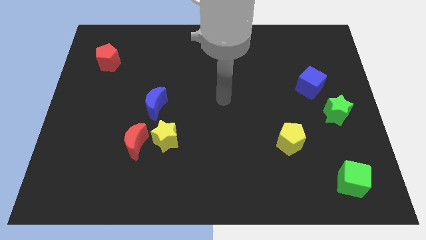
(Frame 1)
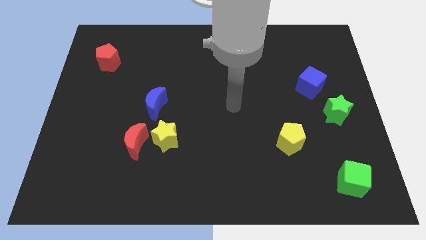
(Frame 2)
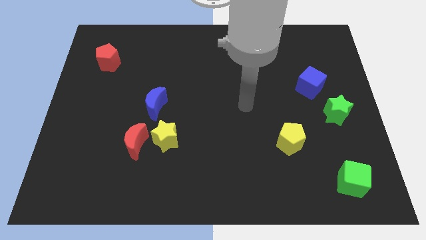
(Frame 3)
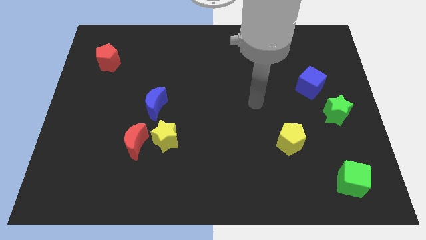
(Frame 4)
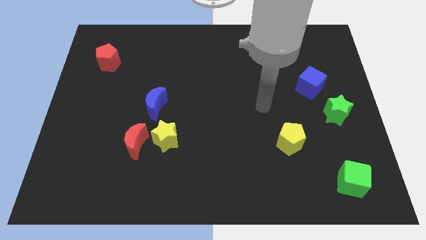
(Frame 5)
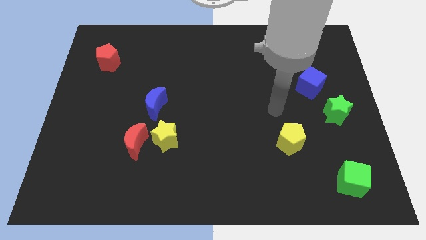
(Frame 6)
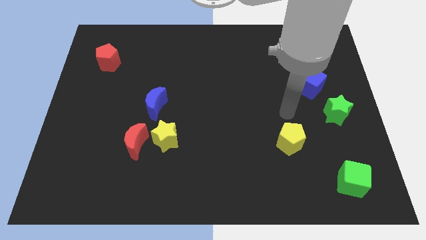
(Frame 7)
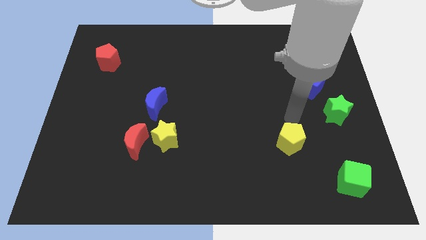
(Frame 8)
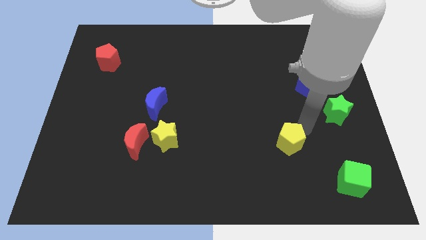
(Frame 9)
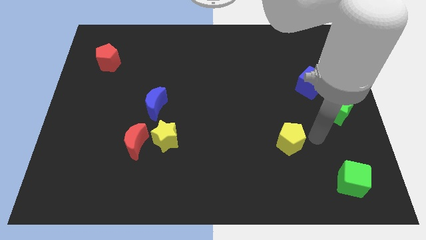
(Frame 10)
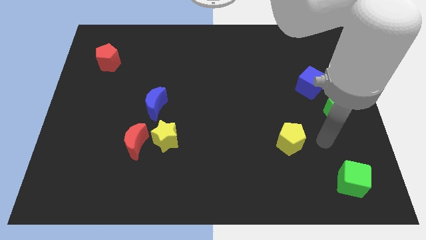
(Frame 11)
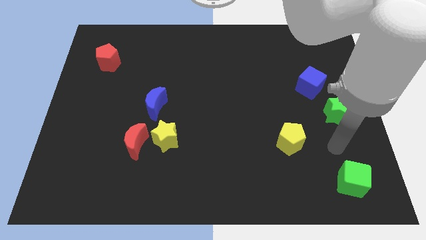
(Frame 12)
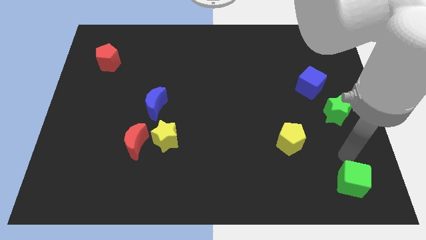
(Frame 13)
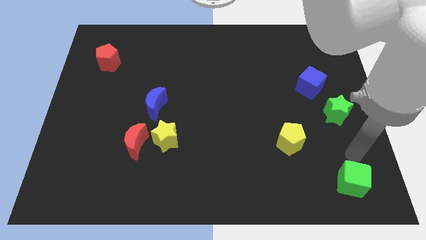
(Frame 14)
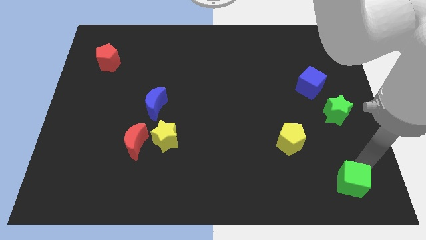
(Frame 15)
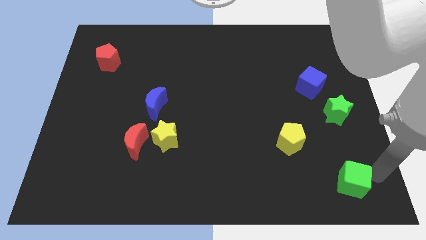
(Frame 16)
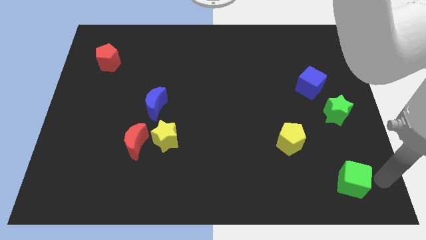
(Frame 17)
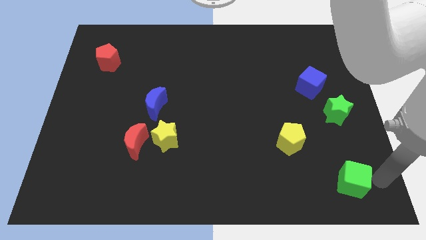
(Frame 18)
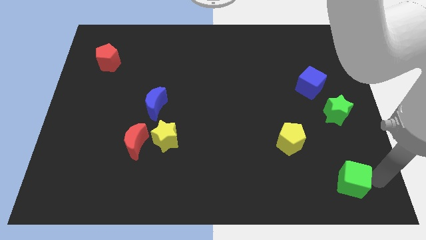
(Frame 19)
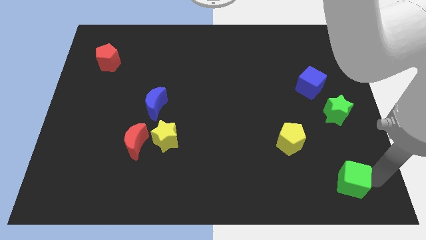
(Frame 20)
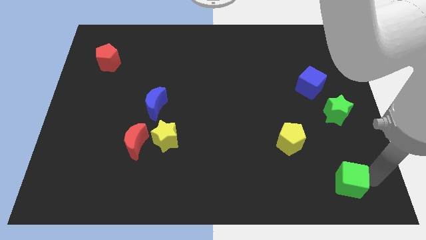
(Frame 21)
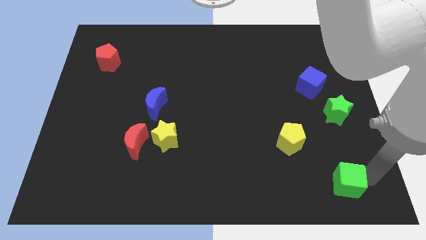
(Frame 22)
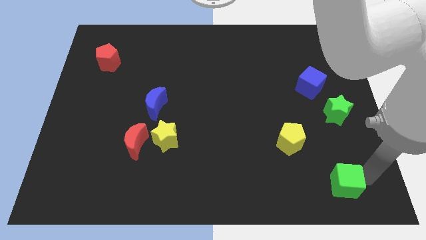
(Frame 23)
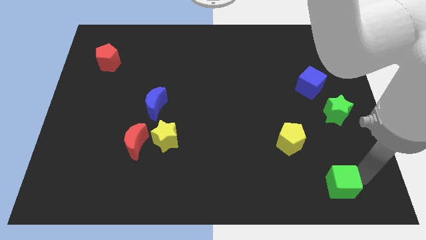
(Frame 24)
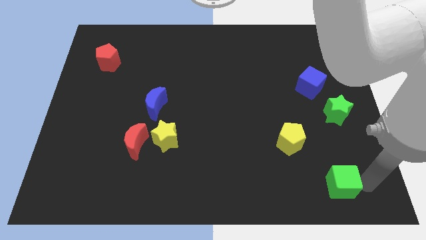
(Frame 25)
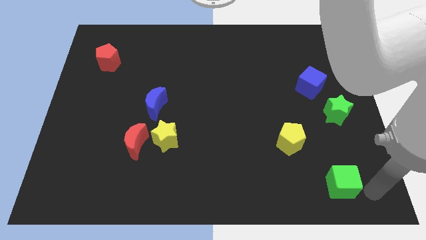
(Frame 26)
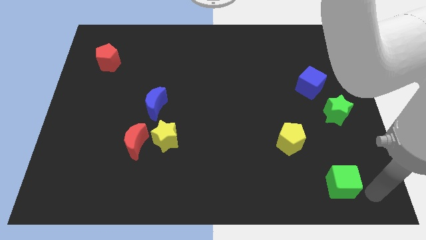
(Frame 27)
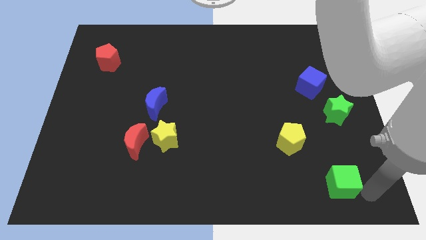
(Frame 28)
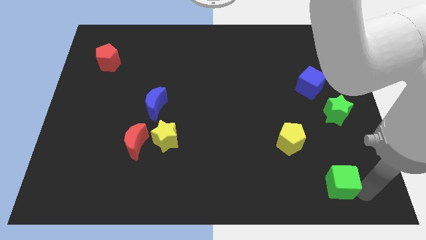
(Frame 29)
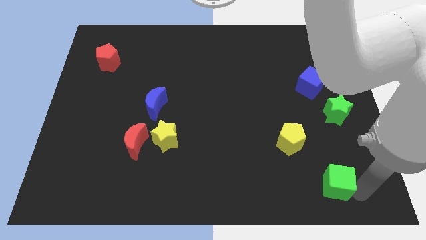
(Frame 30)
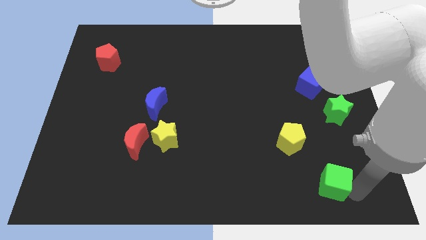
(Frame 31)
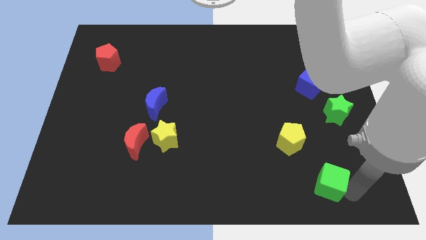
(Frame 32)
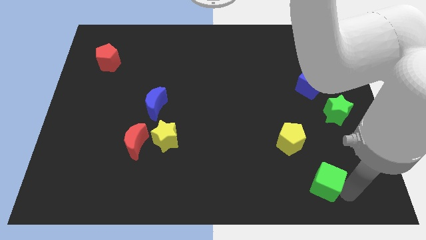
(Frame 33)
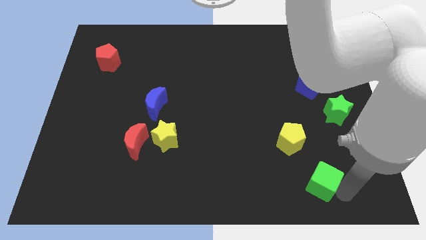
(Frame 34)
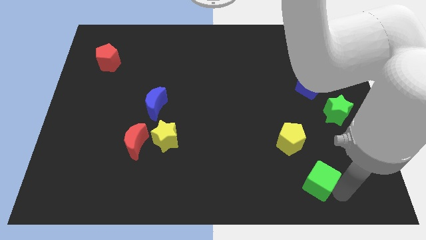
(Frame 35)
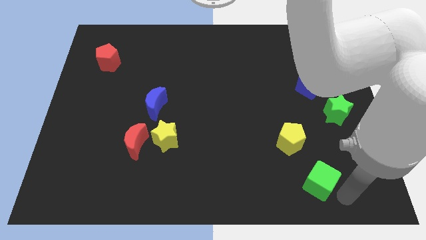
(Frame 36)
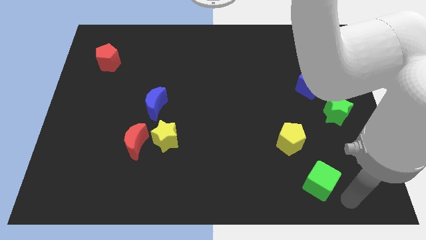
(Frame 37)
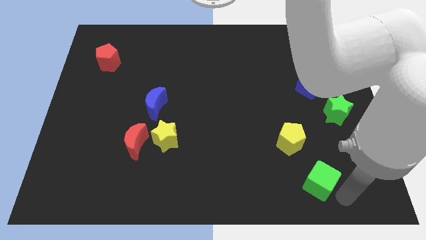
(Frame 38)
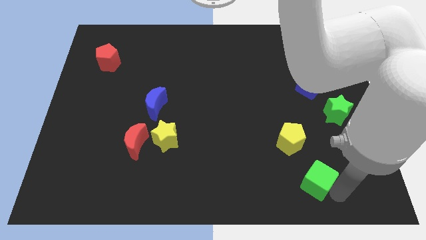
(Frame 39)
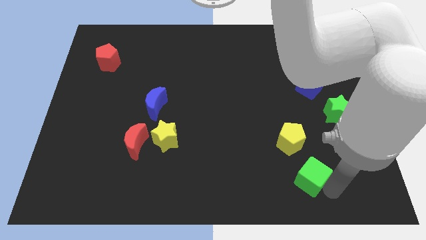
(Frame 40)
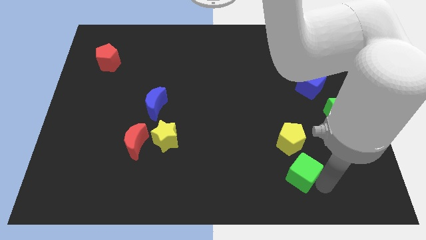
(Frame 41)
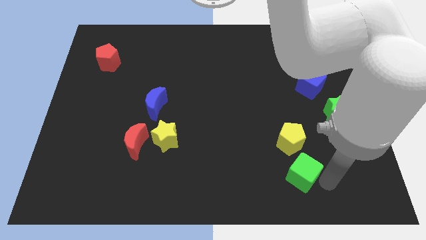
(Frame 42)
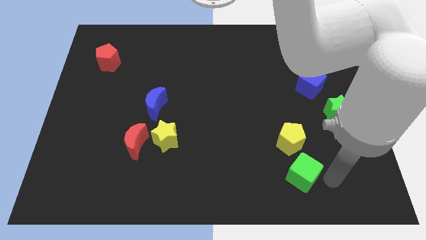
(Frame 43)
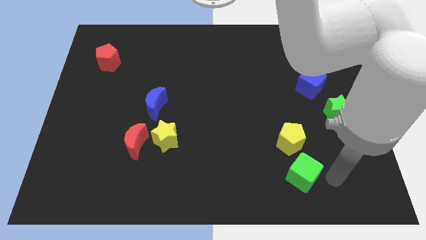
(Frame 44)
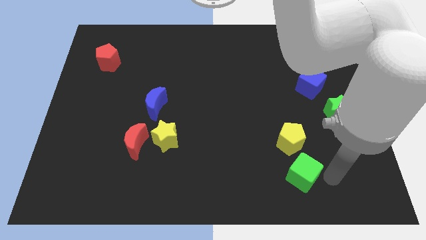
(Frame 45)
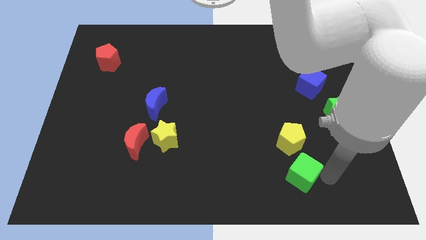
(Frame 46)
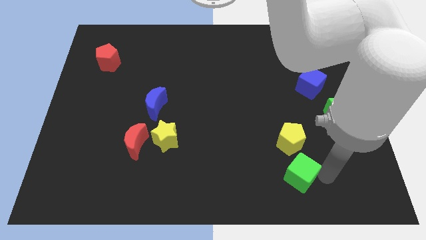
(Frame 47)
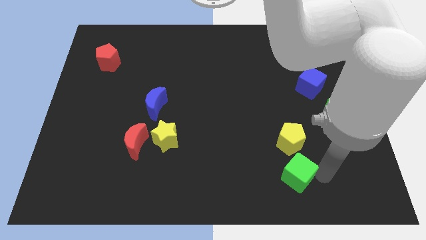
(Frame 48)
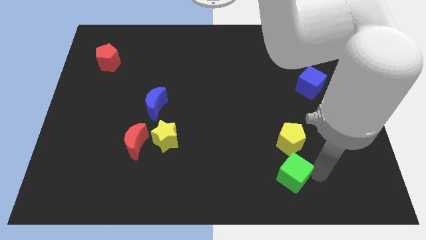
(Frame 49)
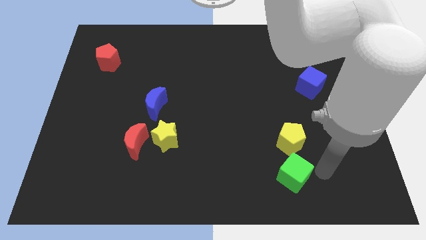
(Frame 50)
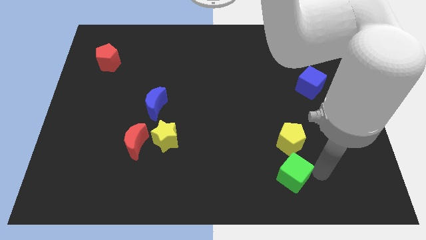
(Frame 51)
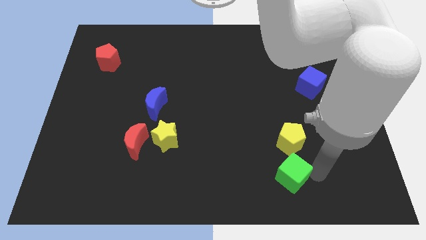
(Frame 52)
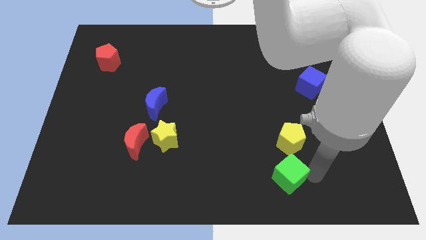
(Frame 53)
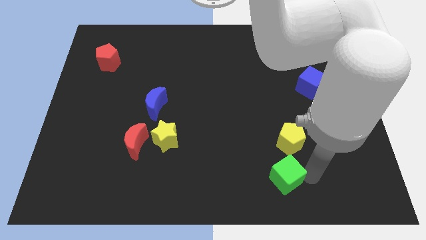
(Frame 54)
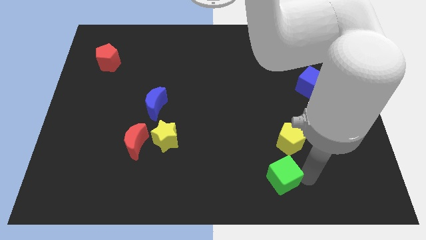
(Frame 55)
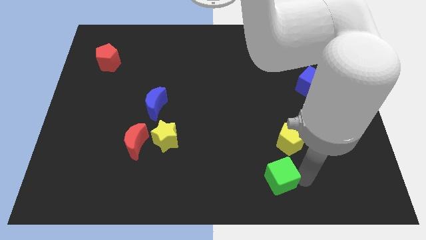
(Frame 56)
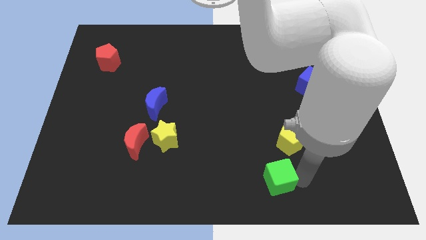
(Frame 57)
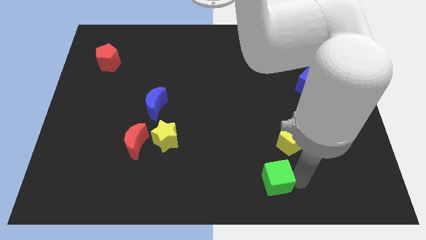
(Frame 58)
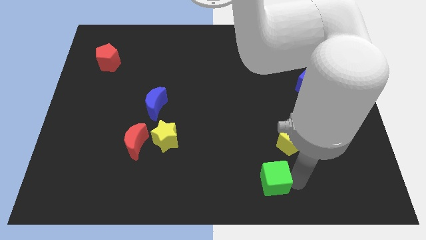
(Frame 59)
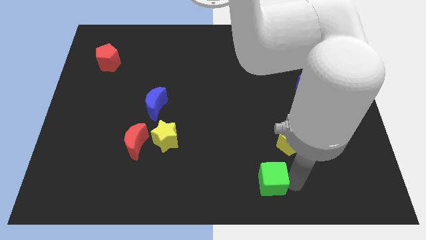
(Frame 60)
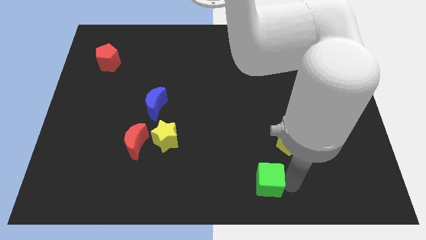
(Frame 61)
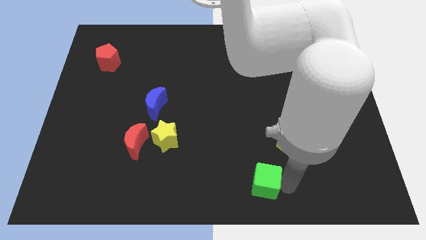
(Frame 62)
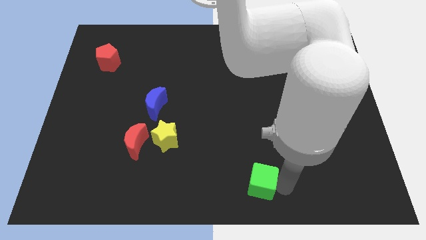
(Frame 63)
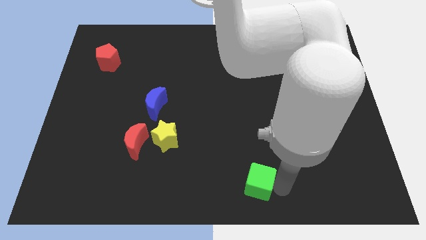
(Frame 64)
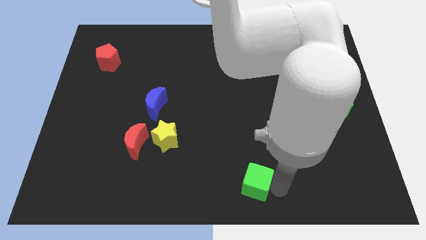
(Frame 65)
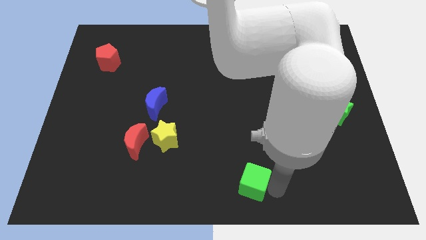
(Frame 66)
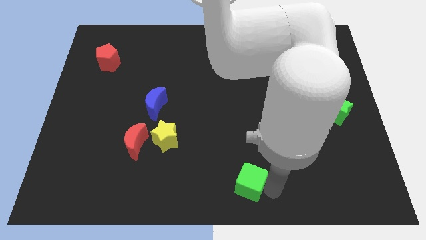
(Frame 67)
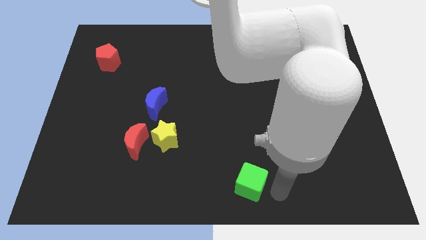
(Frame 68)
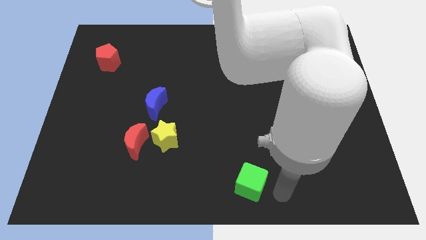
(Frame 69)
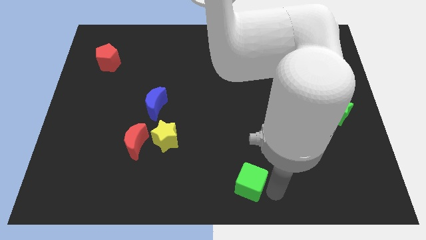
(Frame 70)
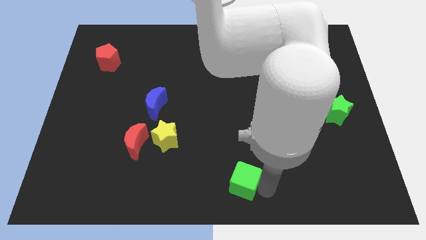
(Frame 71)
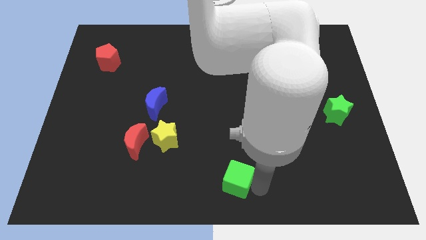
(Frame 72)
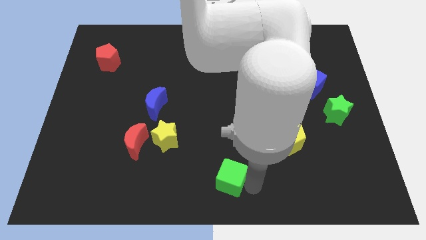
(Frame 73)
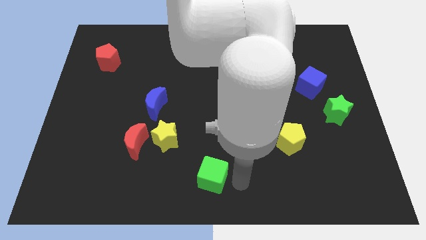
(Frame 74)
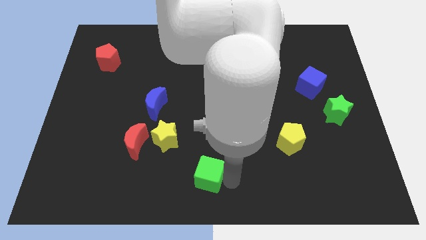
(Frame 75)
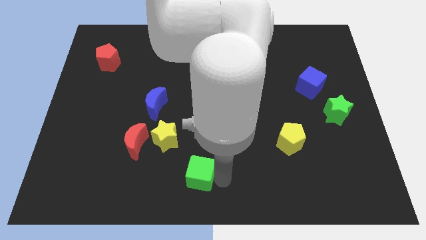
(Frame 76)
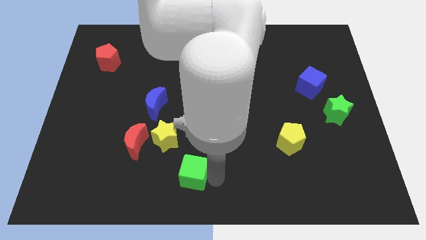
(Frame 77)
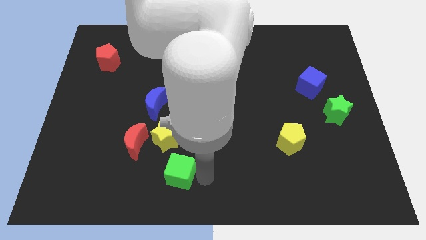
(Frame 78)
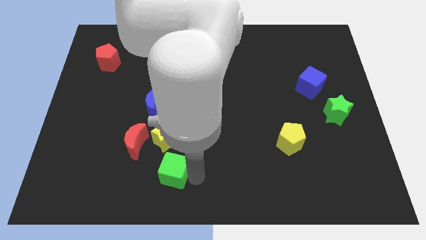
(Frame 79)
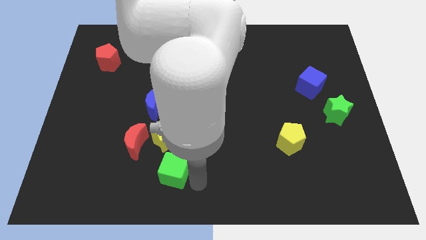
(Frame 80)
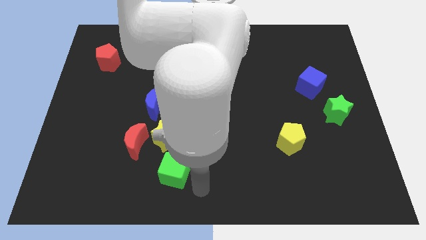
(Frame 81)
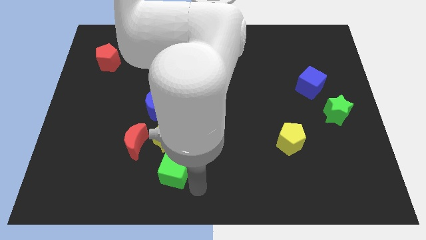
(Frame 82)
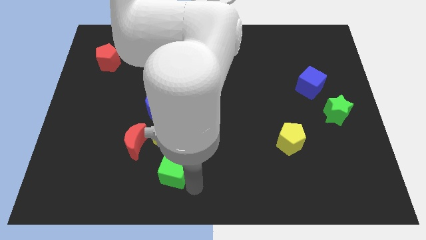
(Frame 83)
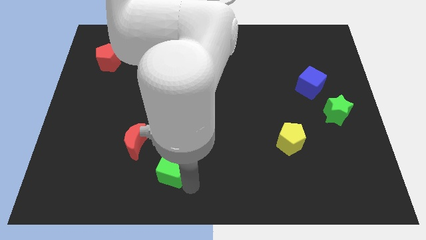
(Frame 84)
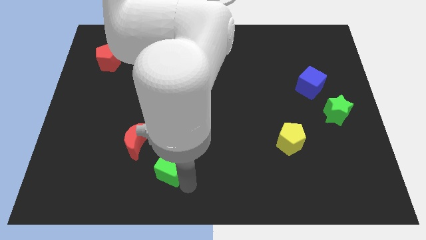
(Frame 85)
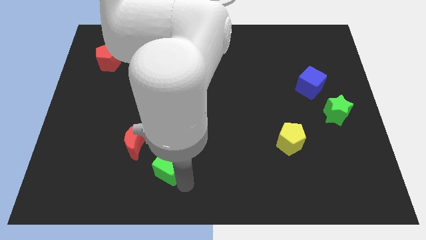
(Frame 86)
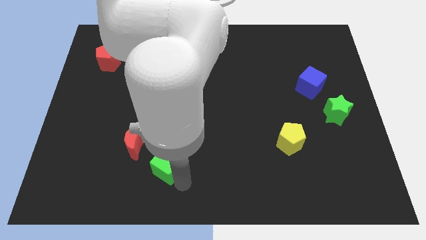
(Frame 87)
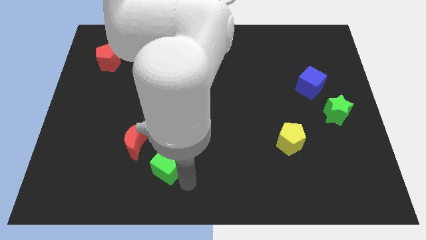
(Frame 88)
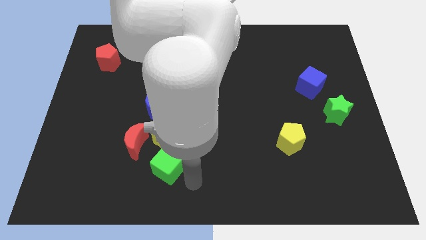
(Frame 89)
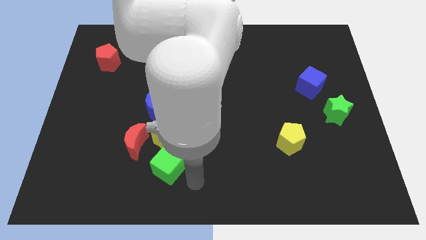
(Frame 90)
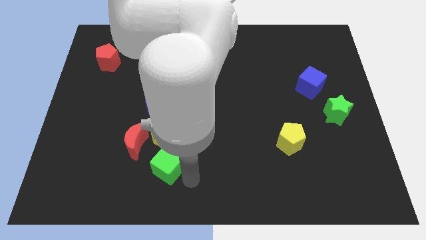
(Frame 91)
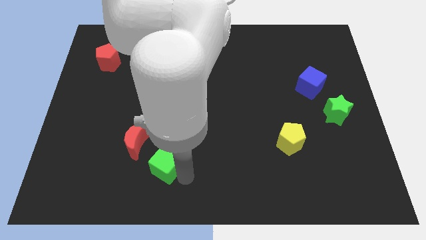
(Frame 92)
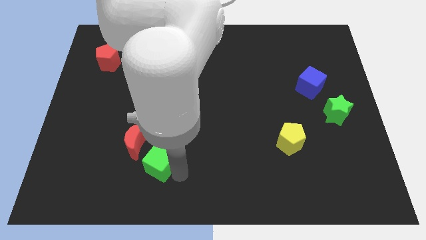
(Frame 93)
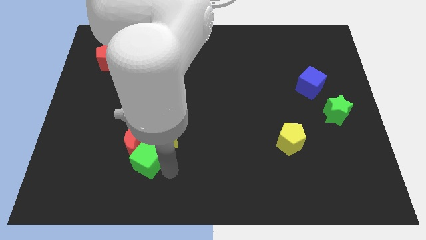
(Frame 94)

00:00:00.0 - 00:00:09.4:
slide the green cube towards the red moon
